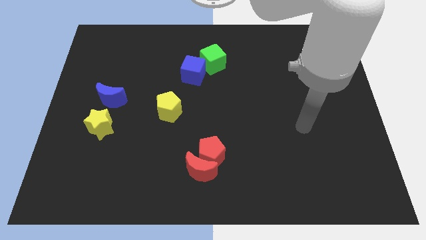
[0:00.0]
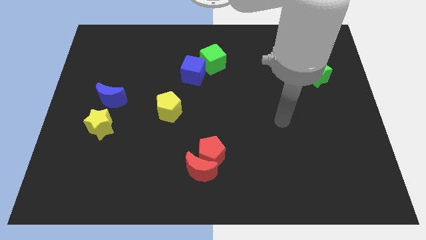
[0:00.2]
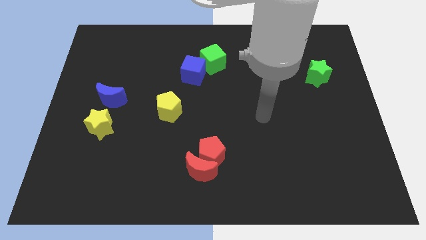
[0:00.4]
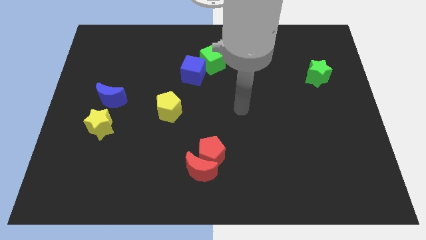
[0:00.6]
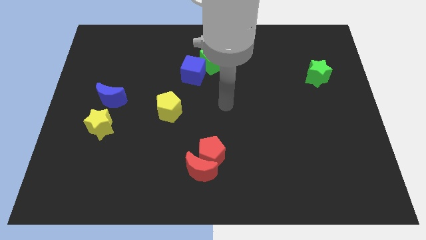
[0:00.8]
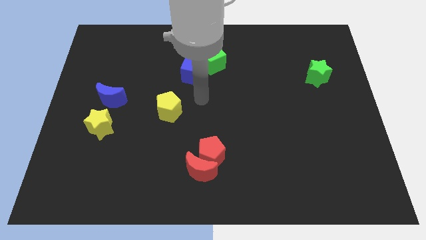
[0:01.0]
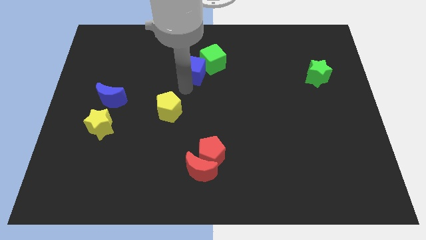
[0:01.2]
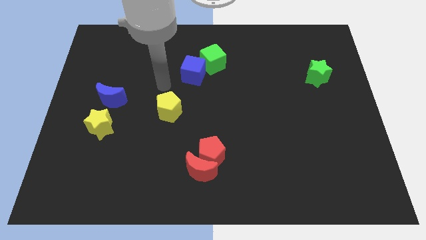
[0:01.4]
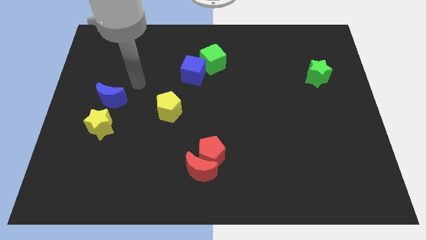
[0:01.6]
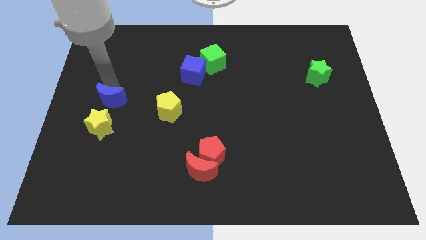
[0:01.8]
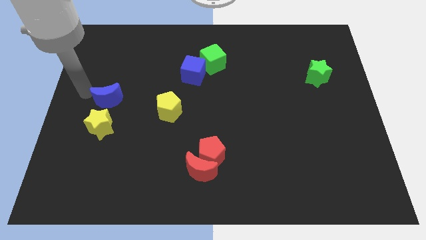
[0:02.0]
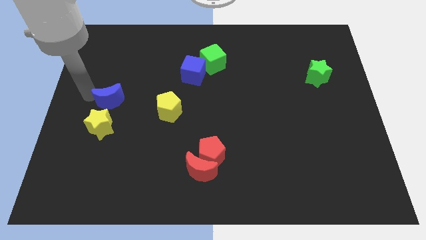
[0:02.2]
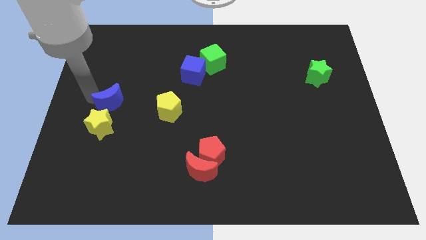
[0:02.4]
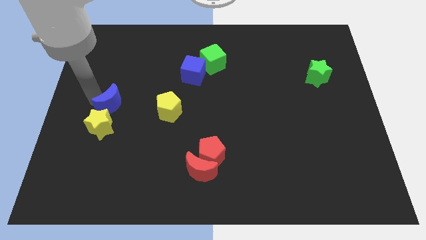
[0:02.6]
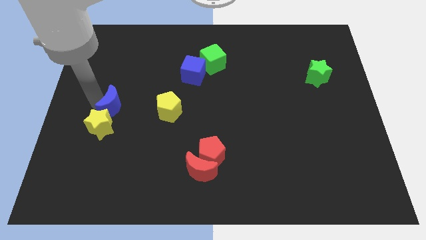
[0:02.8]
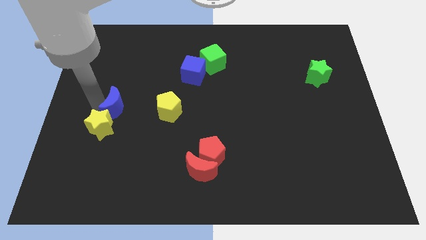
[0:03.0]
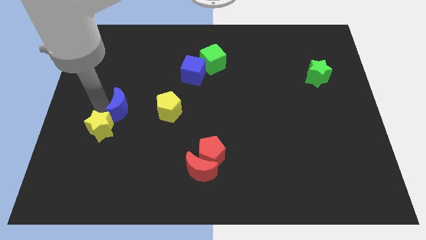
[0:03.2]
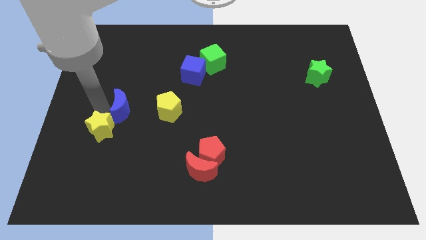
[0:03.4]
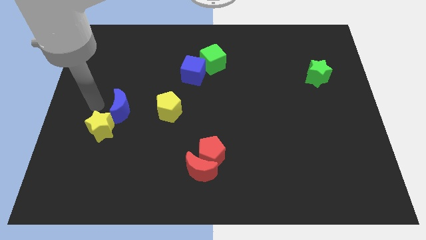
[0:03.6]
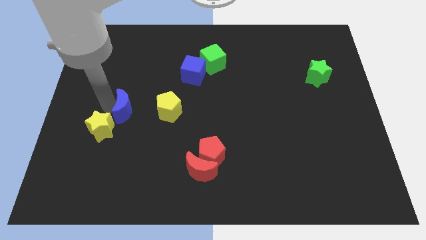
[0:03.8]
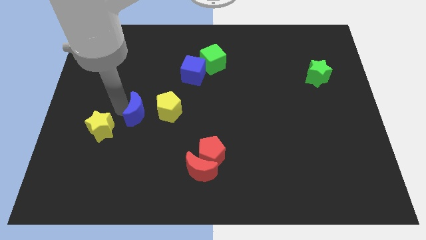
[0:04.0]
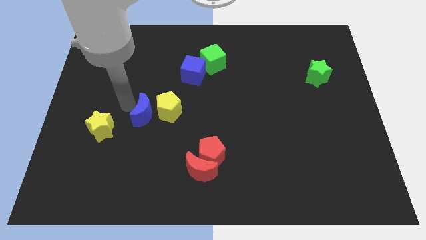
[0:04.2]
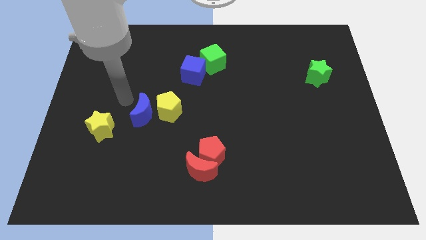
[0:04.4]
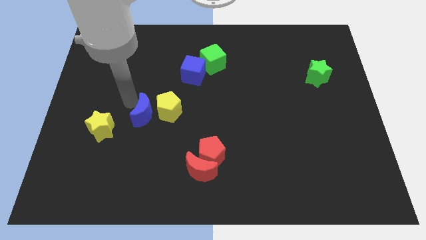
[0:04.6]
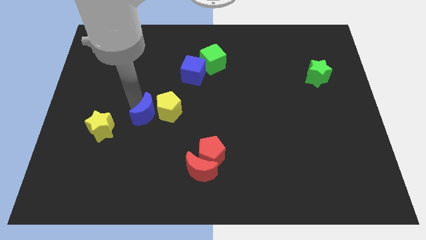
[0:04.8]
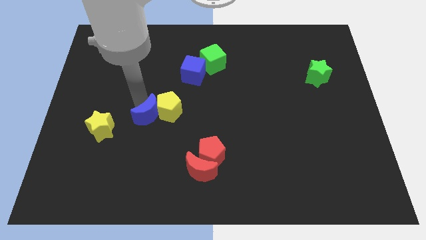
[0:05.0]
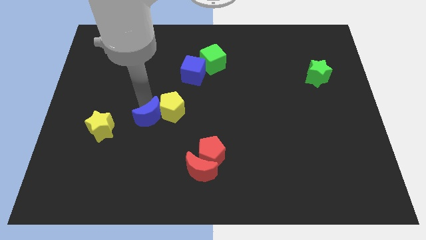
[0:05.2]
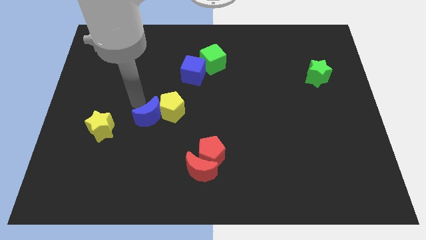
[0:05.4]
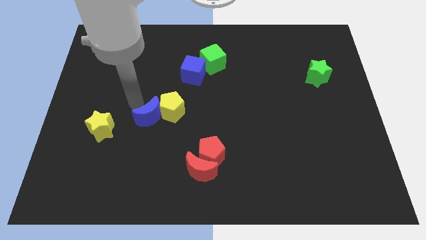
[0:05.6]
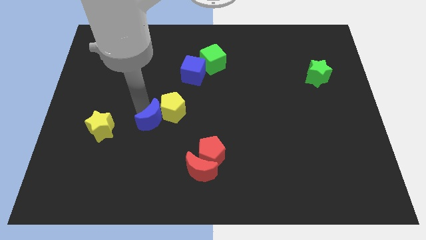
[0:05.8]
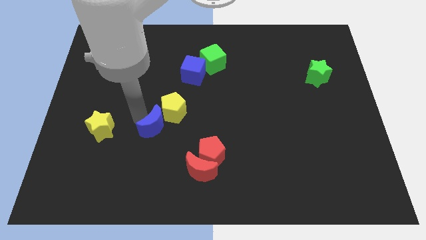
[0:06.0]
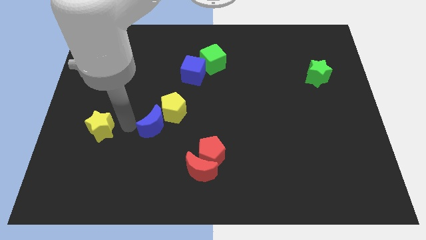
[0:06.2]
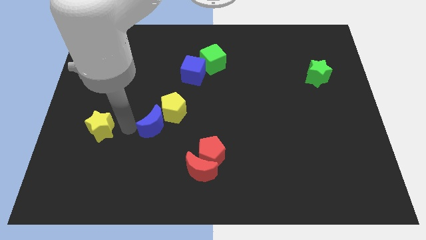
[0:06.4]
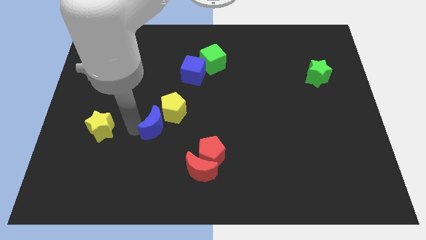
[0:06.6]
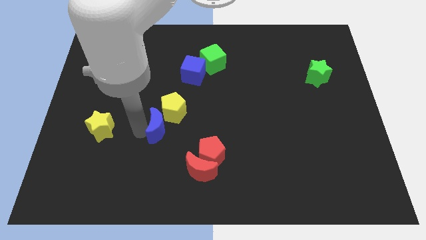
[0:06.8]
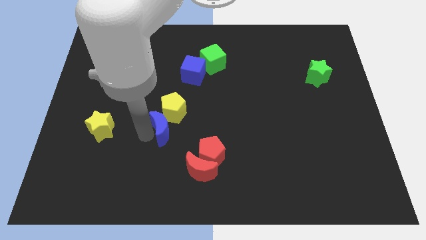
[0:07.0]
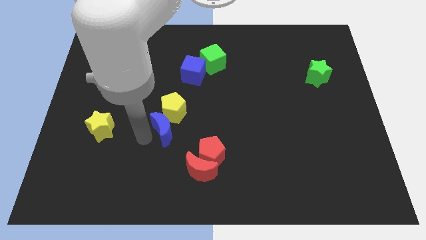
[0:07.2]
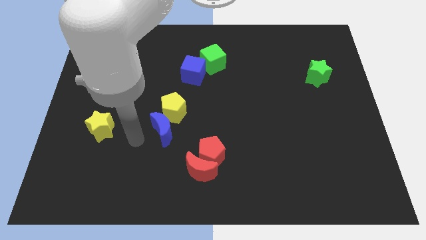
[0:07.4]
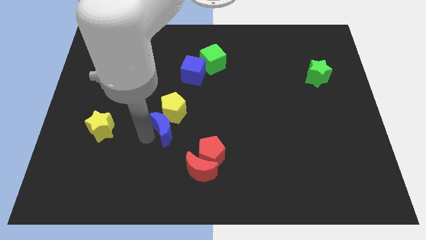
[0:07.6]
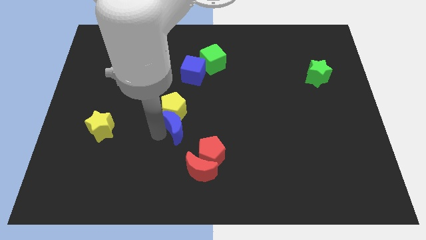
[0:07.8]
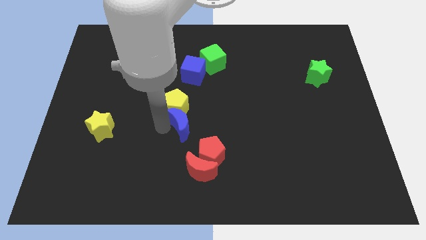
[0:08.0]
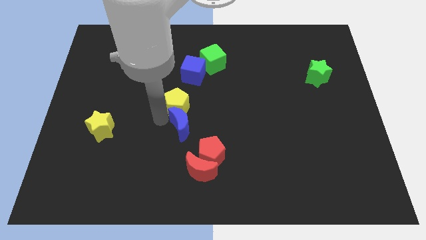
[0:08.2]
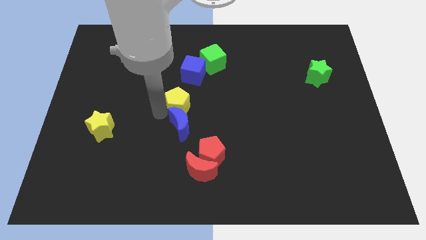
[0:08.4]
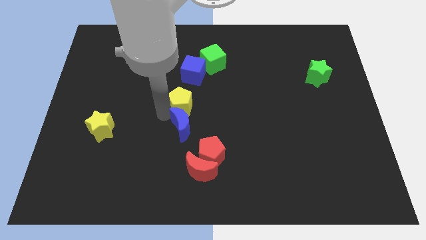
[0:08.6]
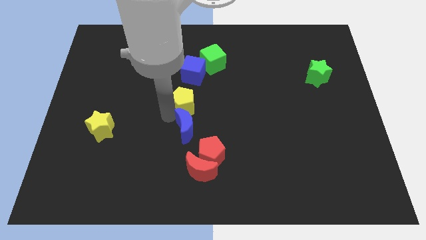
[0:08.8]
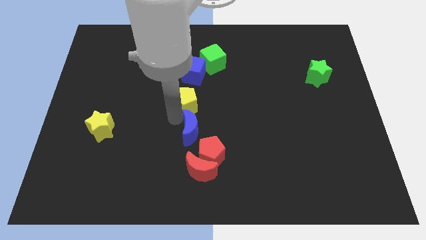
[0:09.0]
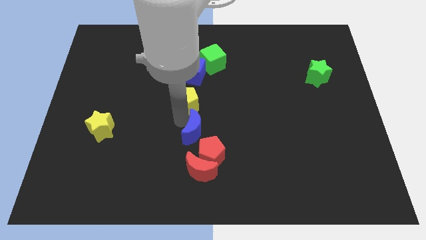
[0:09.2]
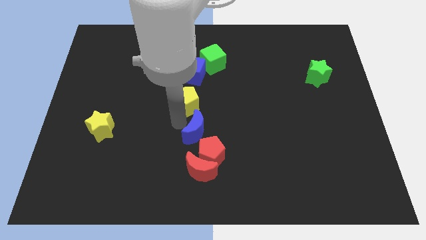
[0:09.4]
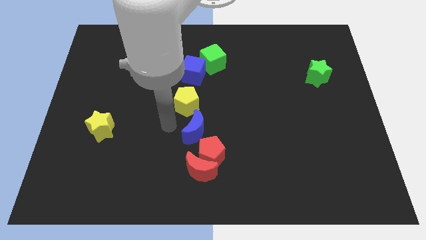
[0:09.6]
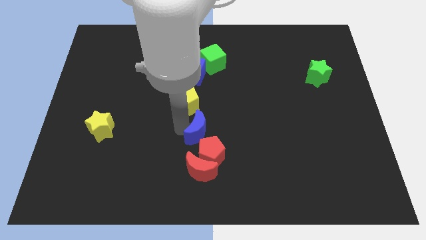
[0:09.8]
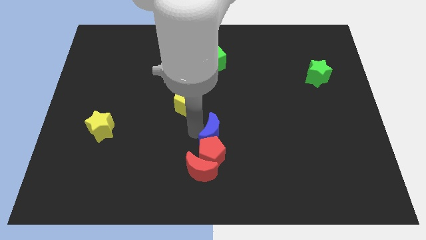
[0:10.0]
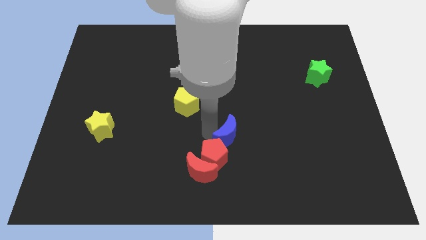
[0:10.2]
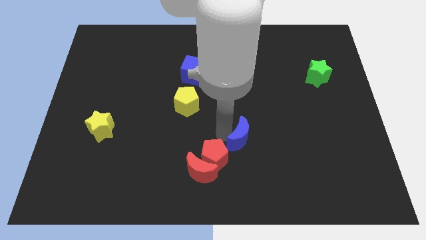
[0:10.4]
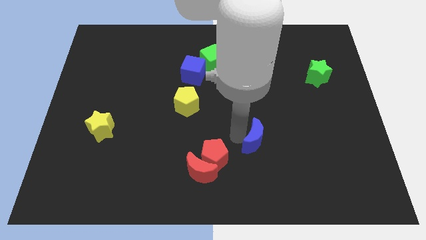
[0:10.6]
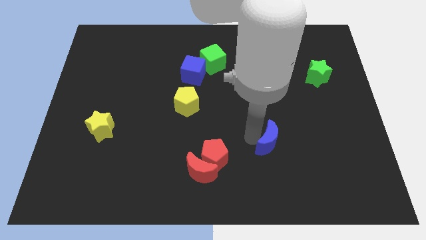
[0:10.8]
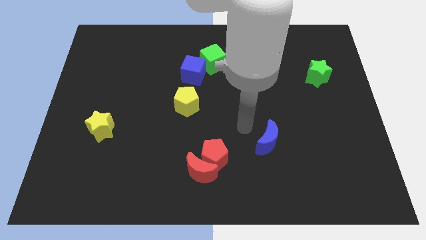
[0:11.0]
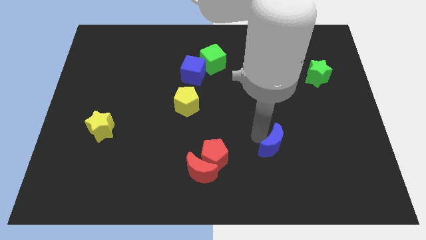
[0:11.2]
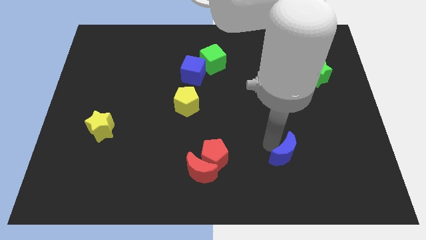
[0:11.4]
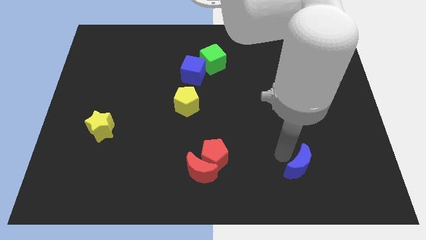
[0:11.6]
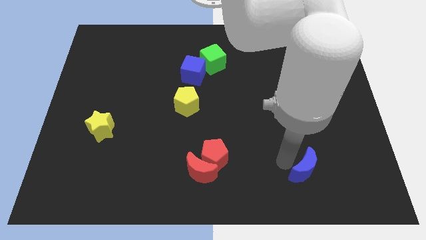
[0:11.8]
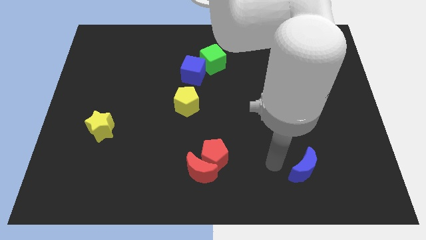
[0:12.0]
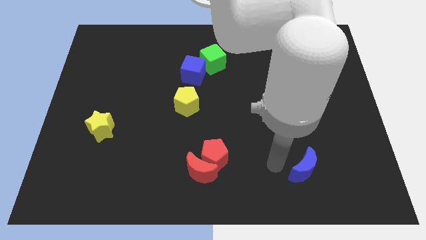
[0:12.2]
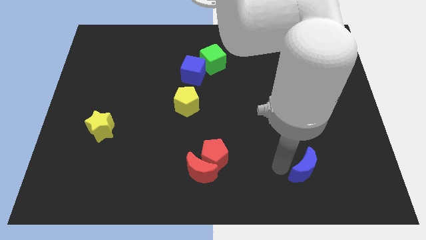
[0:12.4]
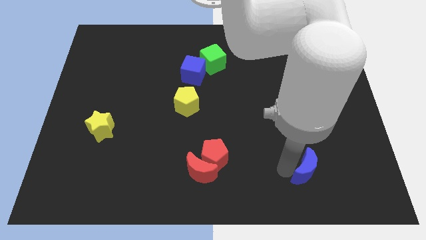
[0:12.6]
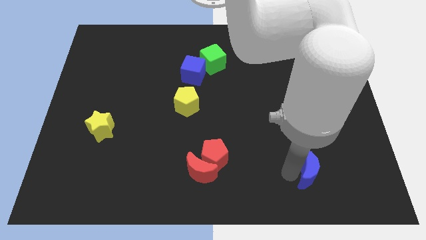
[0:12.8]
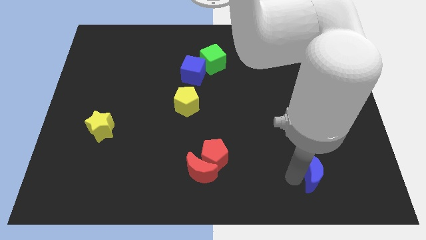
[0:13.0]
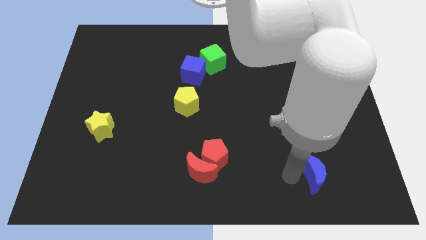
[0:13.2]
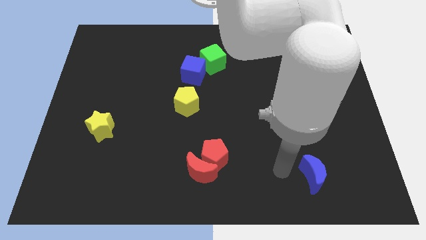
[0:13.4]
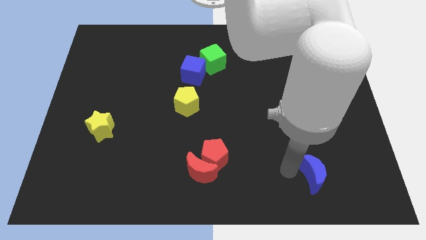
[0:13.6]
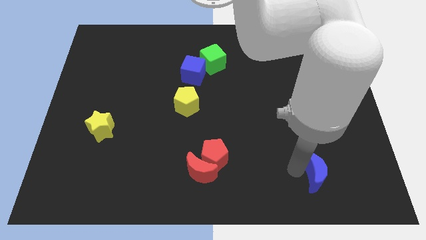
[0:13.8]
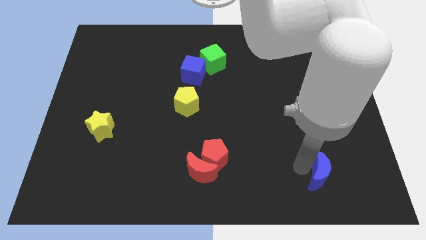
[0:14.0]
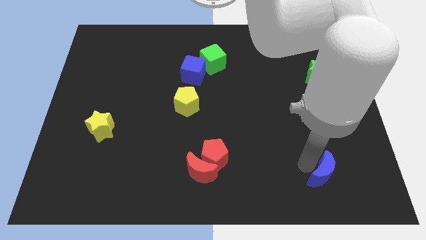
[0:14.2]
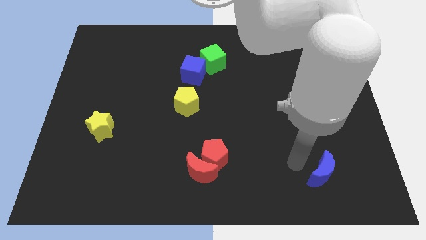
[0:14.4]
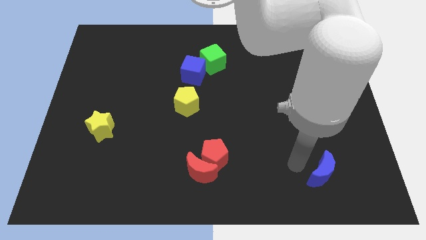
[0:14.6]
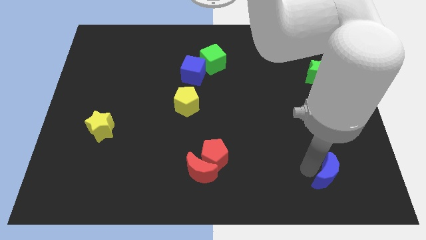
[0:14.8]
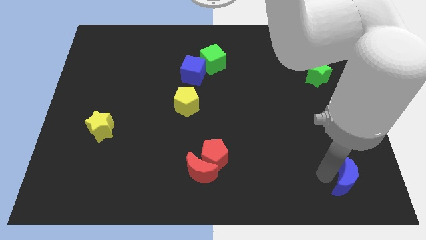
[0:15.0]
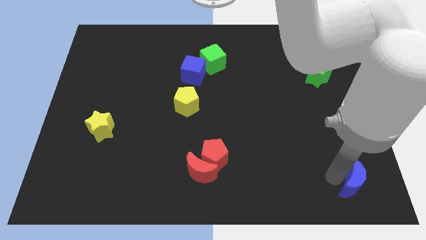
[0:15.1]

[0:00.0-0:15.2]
put the blue moon to the bottom right
